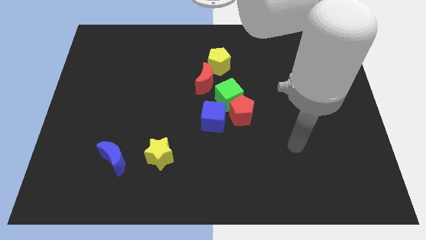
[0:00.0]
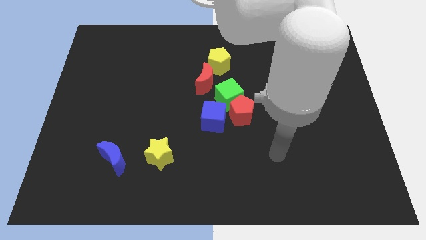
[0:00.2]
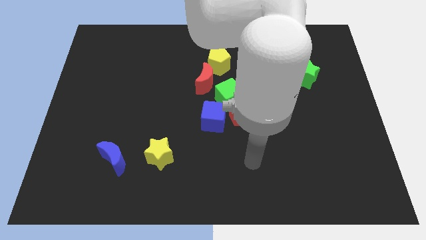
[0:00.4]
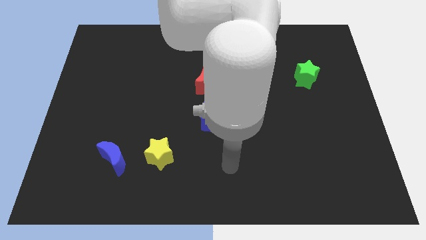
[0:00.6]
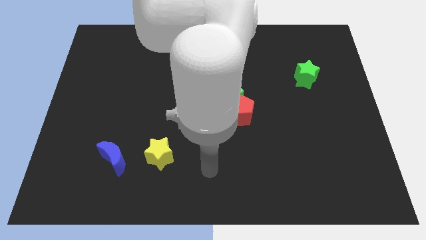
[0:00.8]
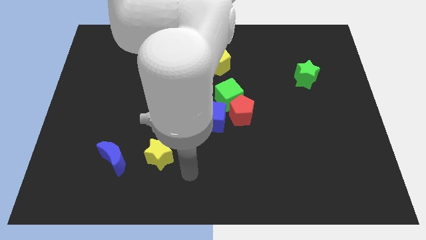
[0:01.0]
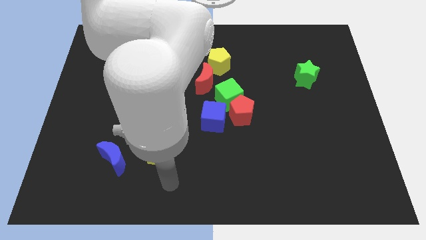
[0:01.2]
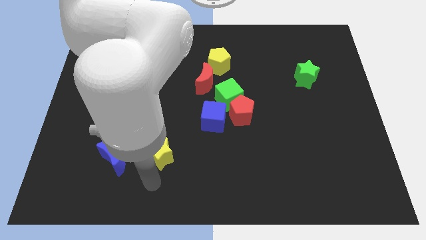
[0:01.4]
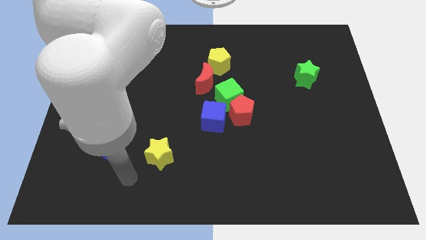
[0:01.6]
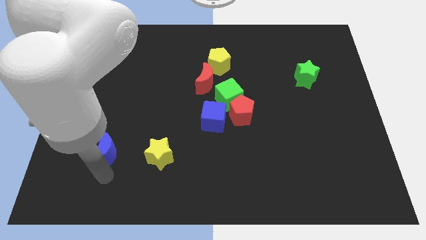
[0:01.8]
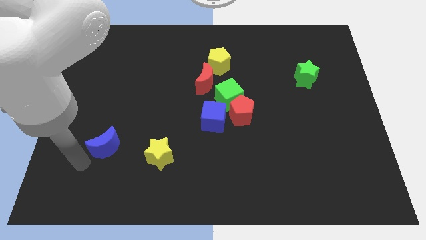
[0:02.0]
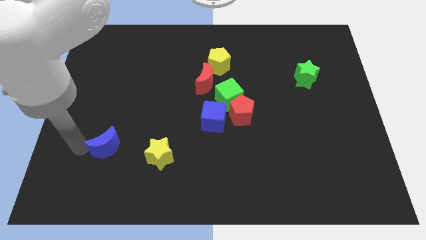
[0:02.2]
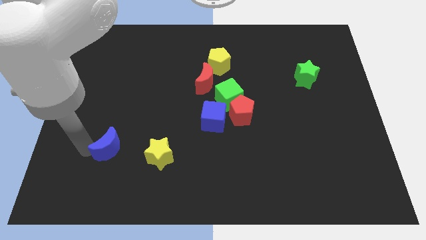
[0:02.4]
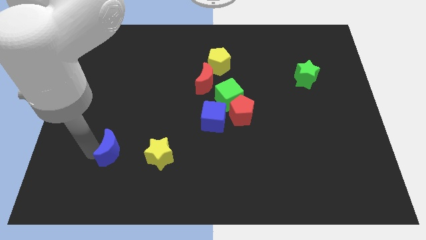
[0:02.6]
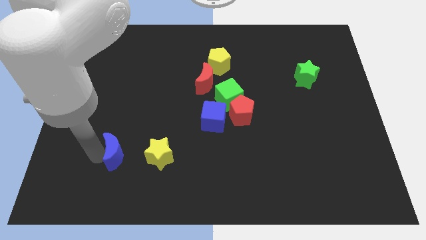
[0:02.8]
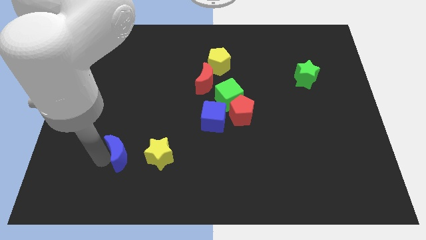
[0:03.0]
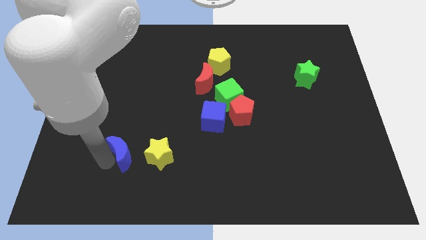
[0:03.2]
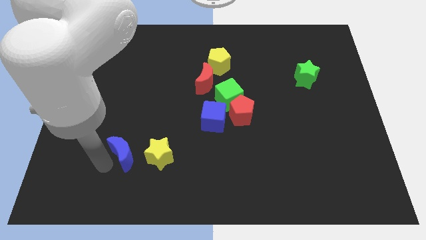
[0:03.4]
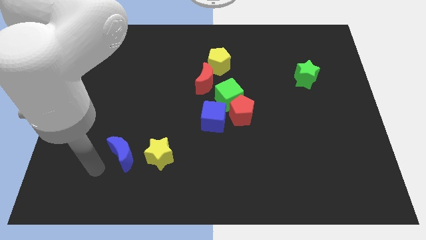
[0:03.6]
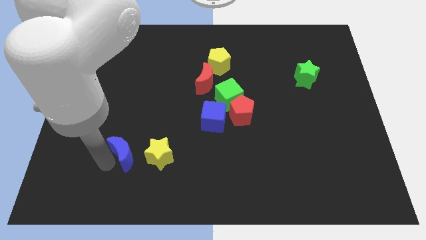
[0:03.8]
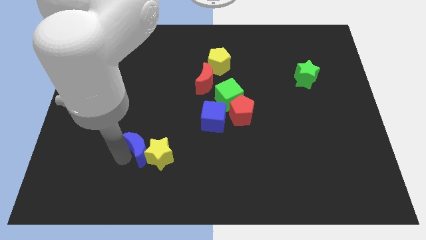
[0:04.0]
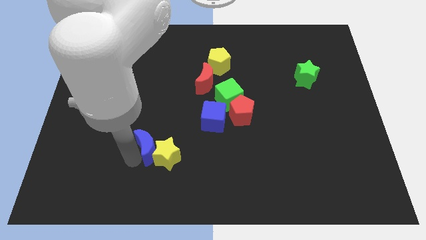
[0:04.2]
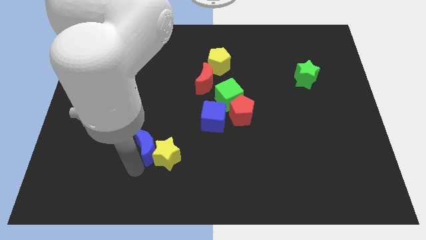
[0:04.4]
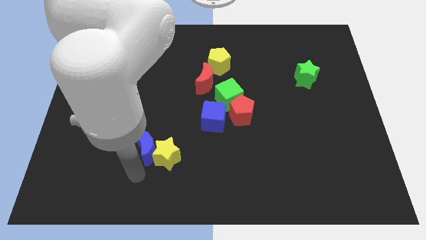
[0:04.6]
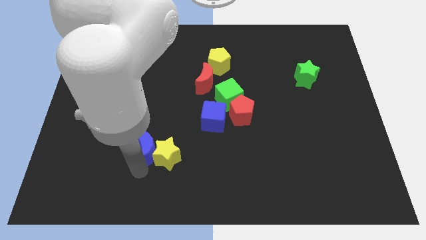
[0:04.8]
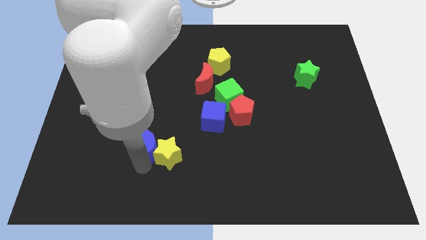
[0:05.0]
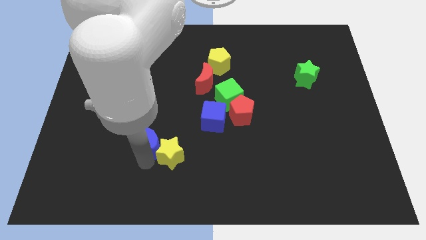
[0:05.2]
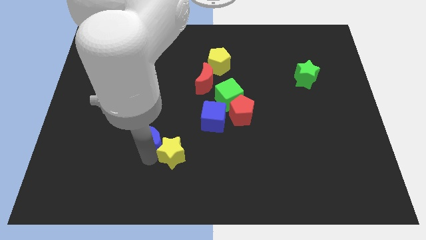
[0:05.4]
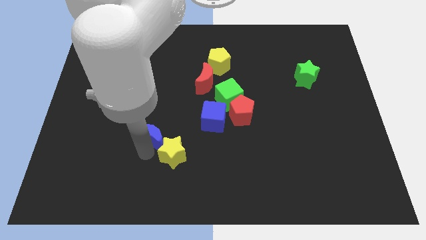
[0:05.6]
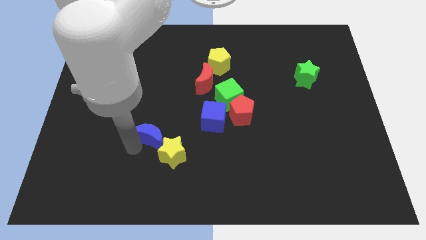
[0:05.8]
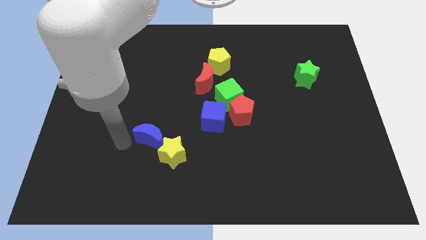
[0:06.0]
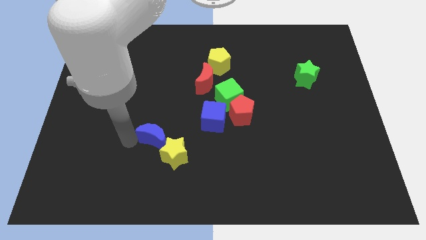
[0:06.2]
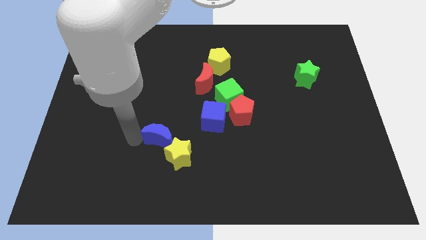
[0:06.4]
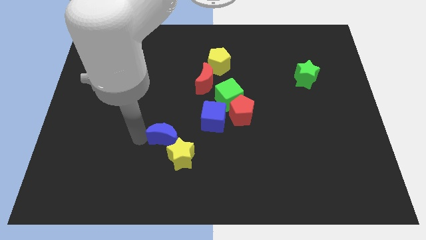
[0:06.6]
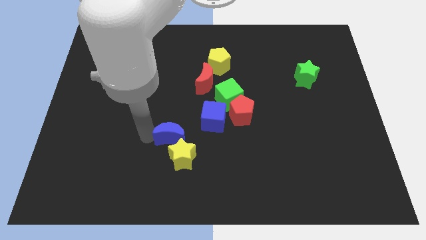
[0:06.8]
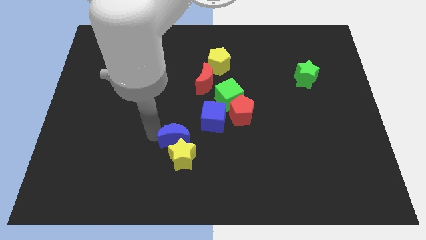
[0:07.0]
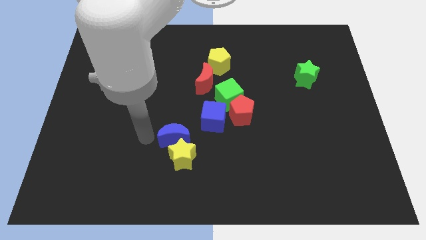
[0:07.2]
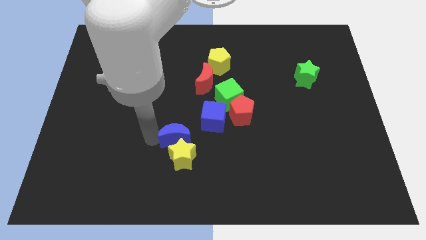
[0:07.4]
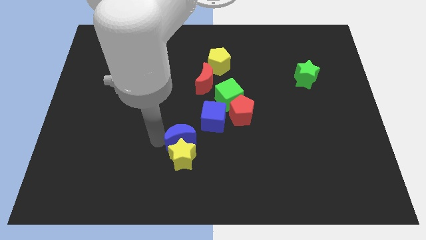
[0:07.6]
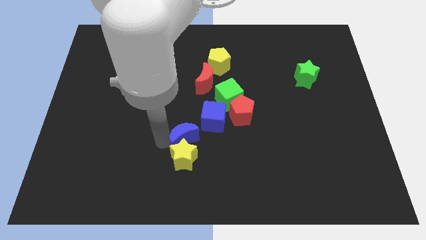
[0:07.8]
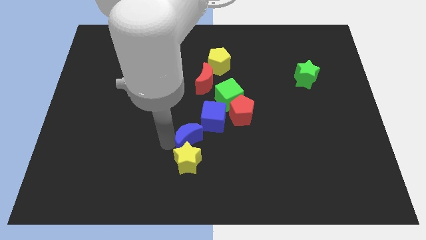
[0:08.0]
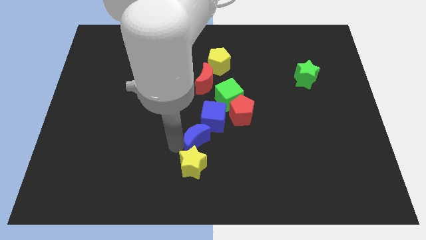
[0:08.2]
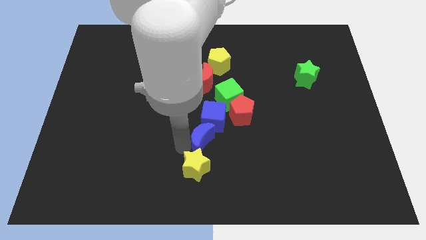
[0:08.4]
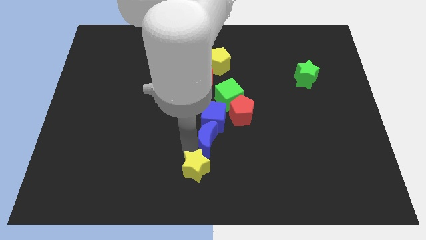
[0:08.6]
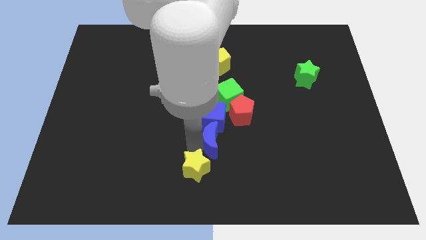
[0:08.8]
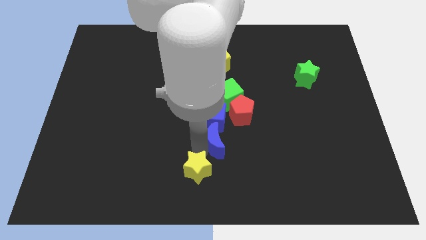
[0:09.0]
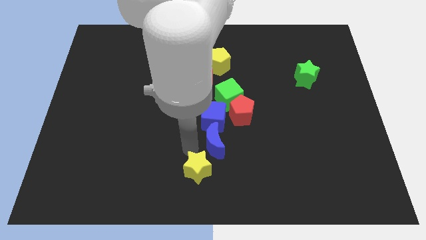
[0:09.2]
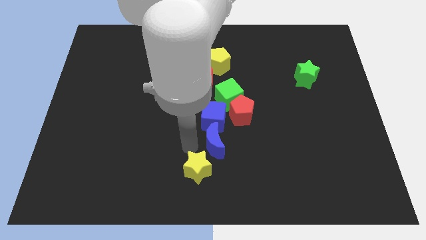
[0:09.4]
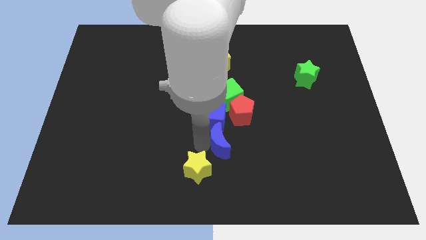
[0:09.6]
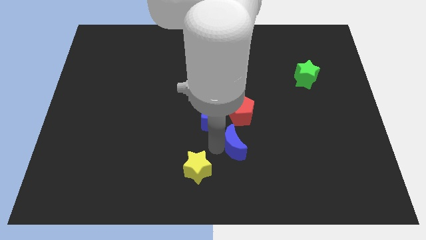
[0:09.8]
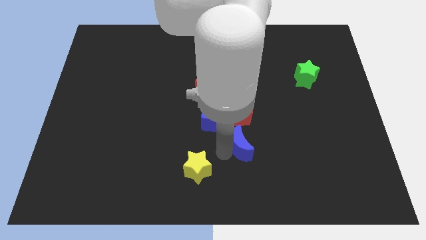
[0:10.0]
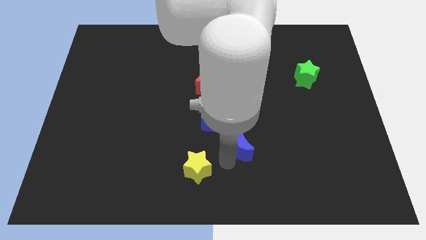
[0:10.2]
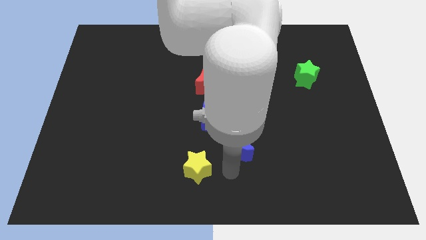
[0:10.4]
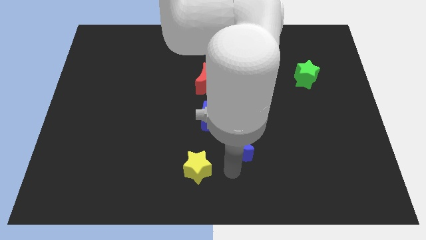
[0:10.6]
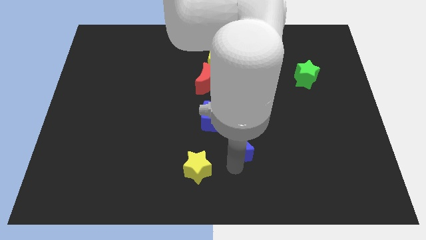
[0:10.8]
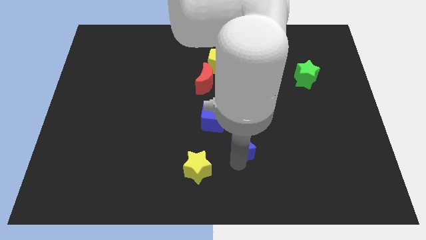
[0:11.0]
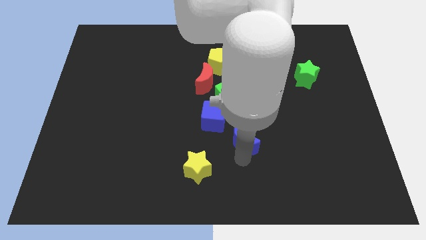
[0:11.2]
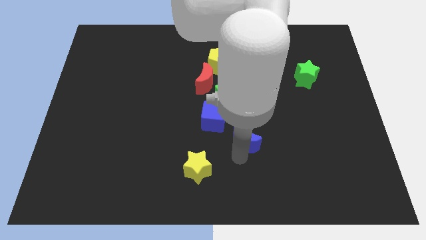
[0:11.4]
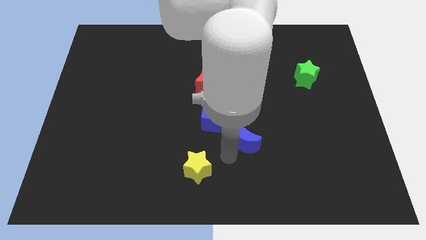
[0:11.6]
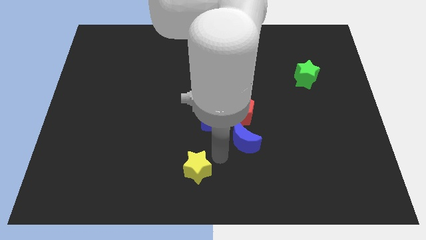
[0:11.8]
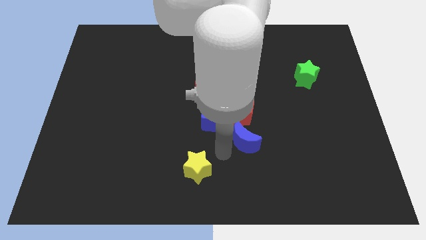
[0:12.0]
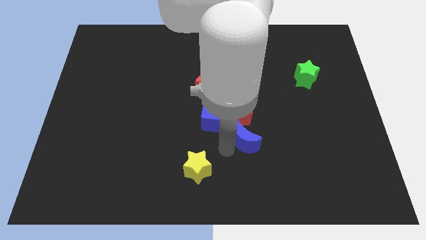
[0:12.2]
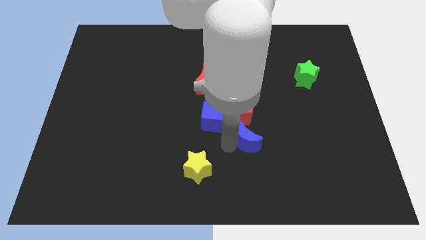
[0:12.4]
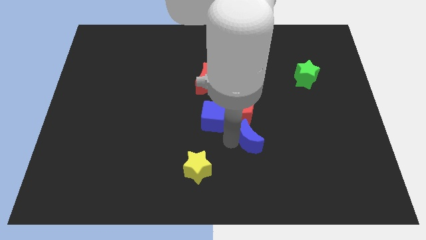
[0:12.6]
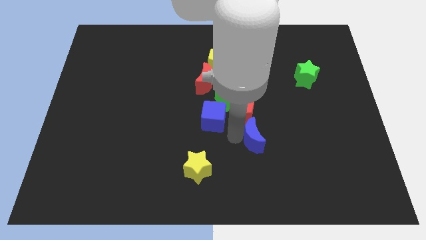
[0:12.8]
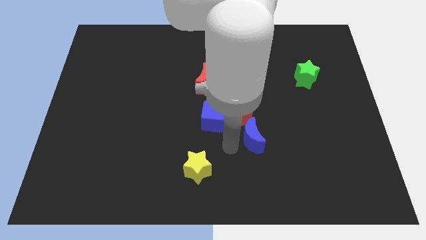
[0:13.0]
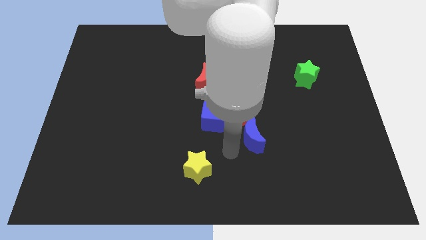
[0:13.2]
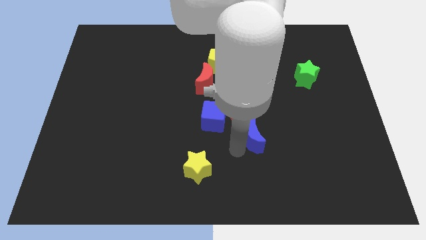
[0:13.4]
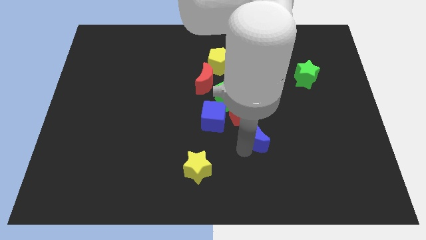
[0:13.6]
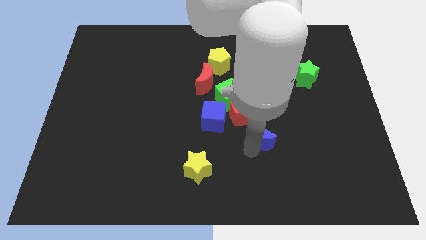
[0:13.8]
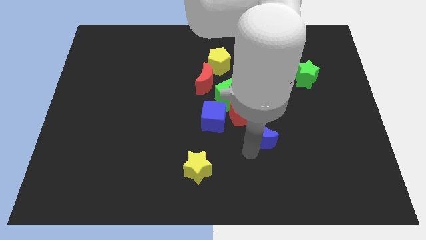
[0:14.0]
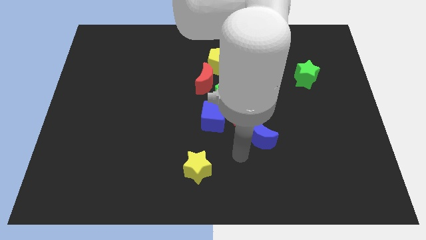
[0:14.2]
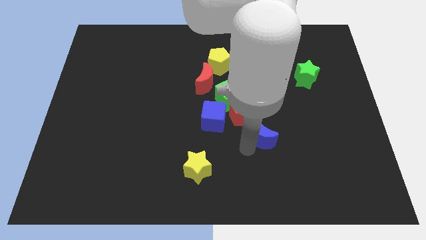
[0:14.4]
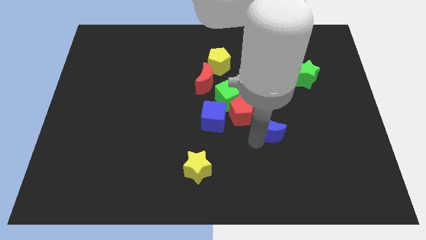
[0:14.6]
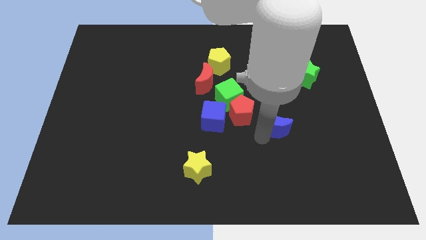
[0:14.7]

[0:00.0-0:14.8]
put the blue moon right of the red pentagon
